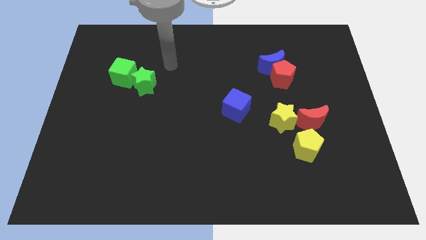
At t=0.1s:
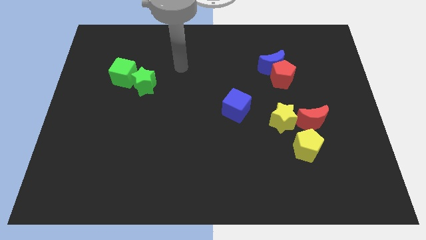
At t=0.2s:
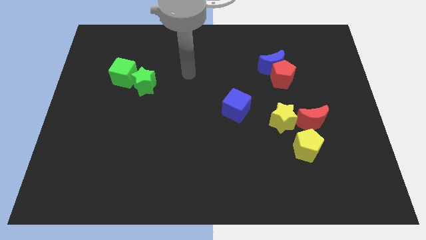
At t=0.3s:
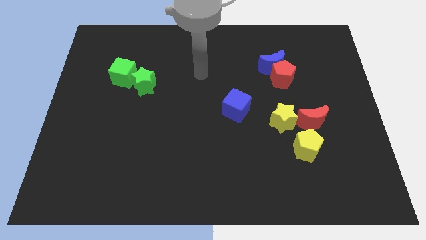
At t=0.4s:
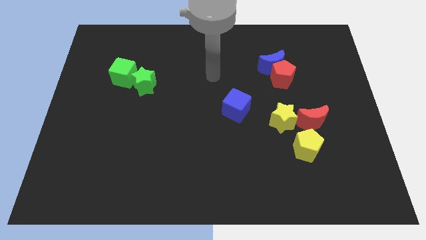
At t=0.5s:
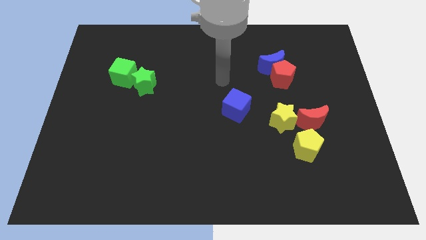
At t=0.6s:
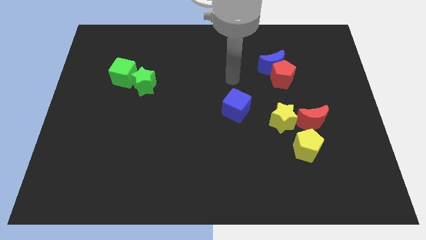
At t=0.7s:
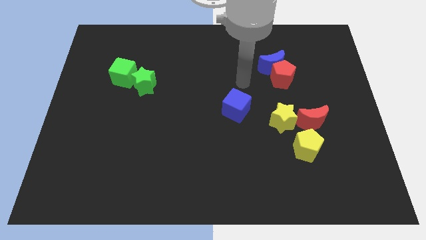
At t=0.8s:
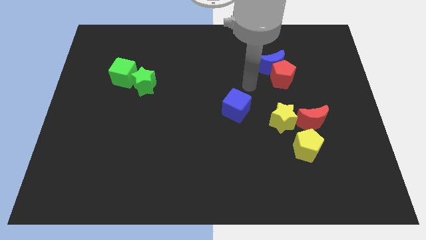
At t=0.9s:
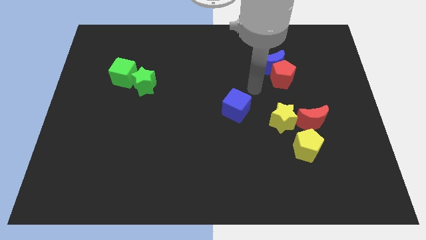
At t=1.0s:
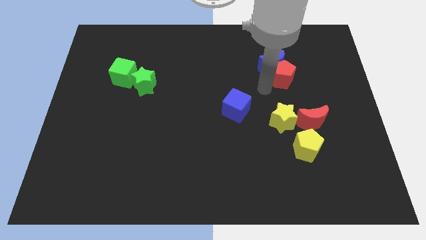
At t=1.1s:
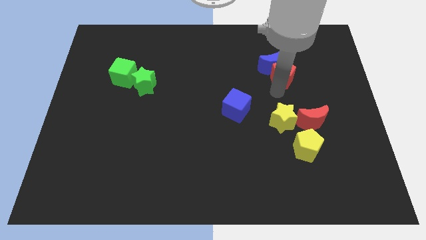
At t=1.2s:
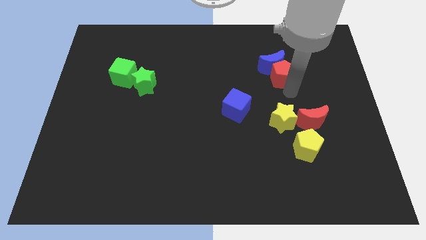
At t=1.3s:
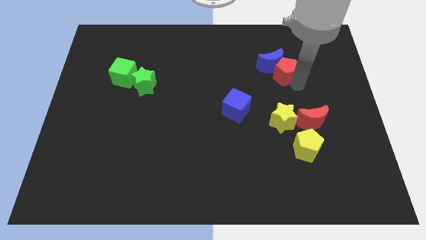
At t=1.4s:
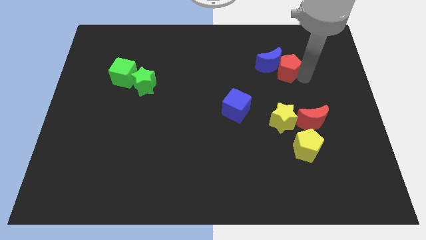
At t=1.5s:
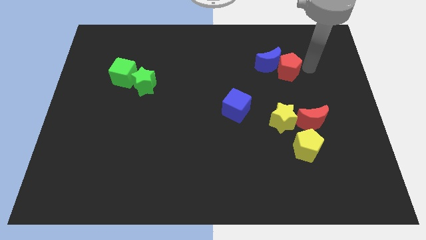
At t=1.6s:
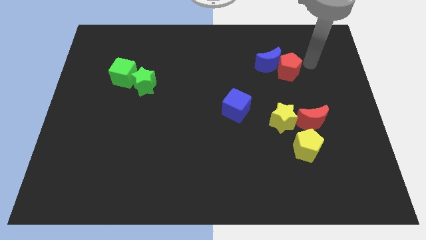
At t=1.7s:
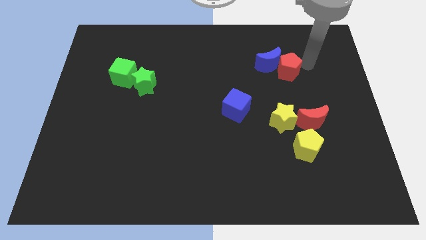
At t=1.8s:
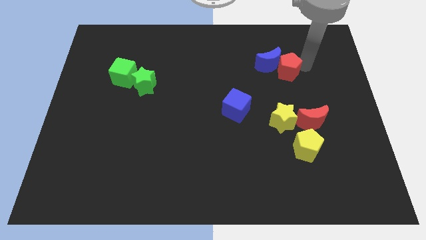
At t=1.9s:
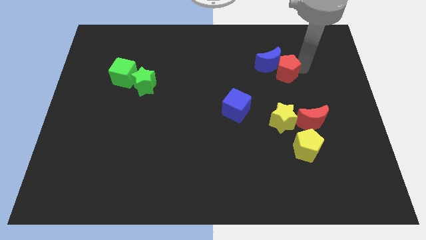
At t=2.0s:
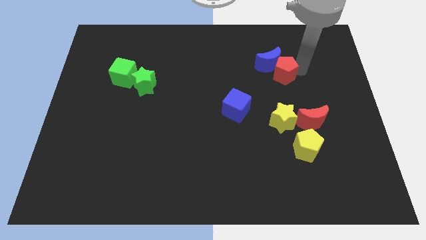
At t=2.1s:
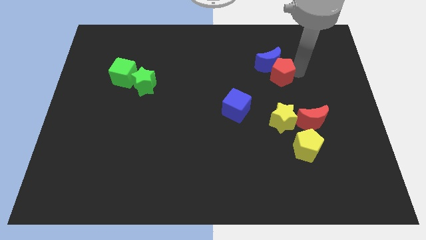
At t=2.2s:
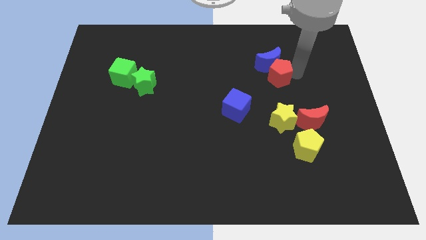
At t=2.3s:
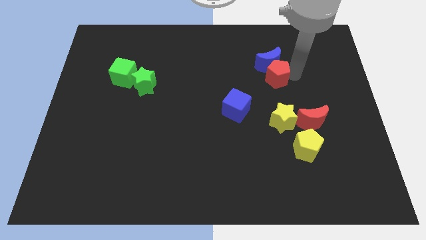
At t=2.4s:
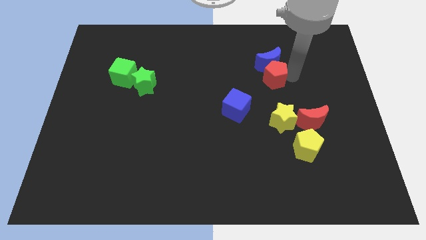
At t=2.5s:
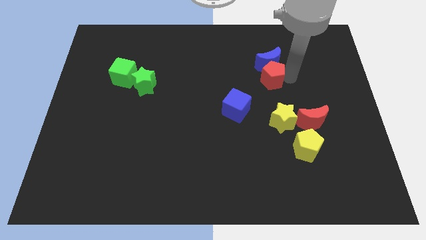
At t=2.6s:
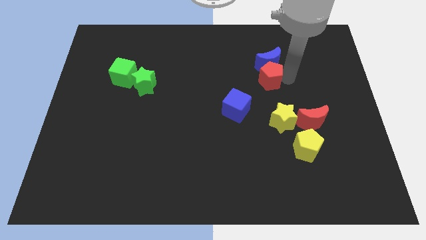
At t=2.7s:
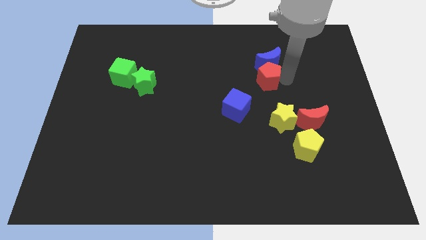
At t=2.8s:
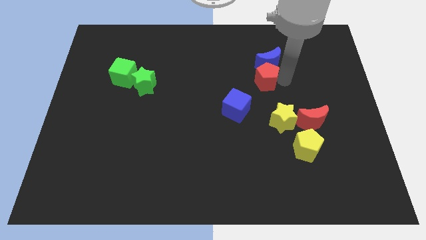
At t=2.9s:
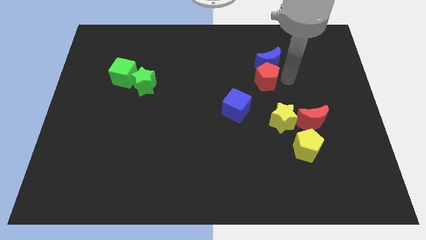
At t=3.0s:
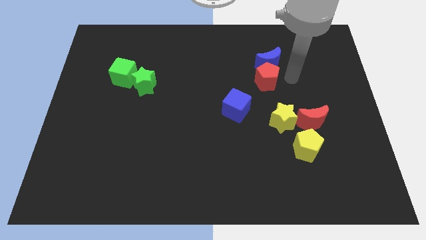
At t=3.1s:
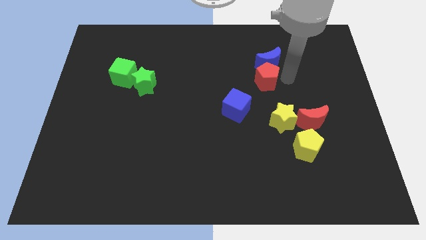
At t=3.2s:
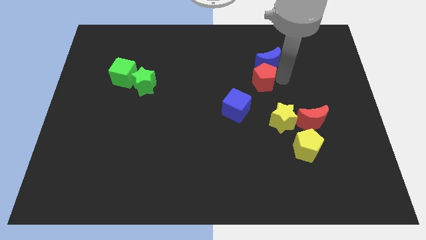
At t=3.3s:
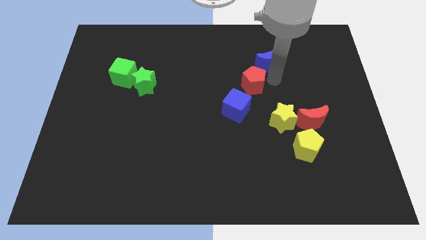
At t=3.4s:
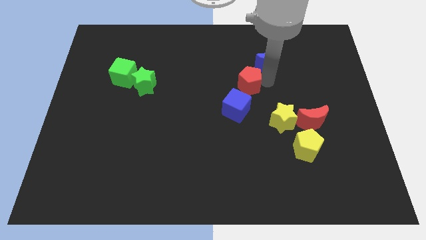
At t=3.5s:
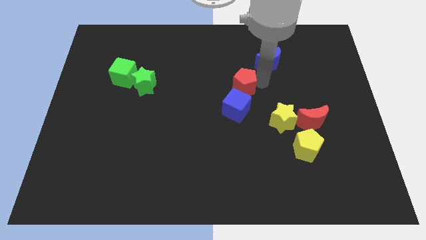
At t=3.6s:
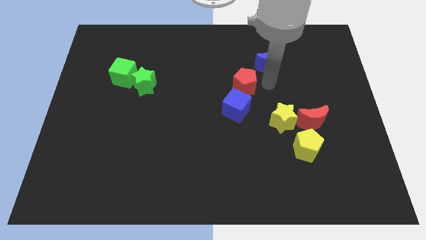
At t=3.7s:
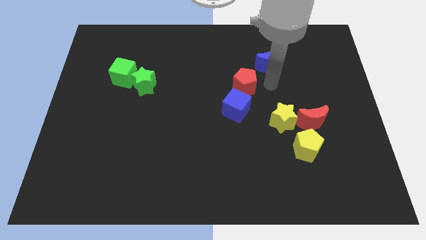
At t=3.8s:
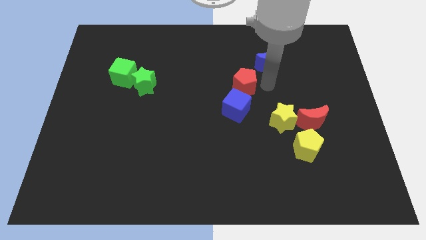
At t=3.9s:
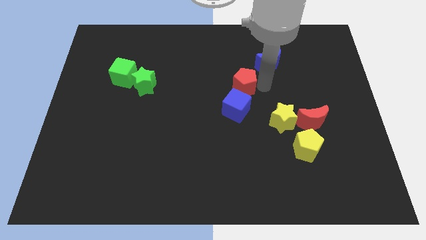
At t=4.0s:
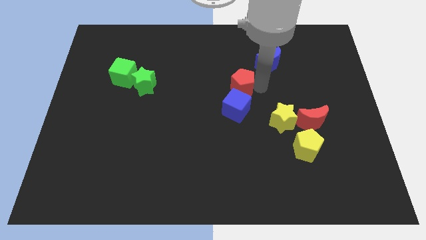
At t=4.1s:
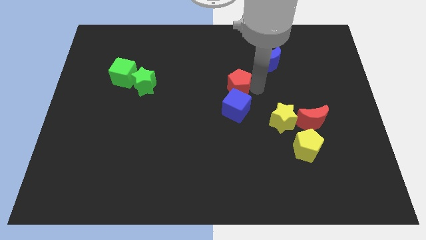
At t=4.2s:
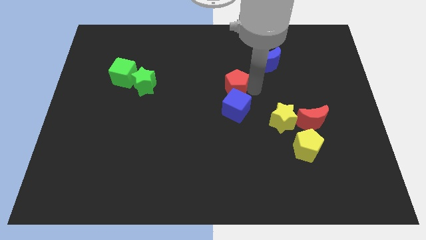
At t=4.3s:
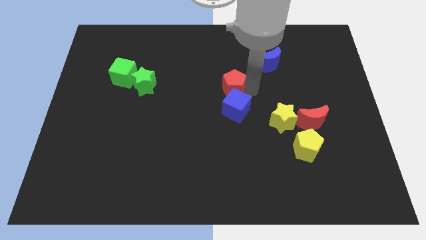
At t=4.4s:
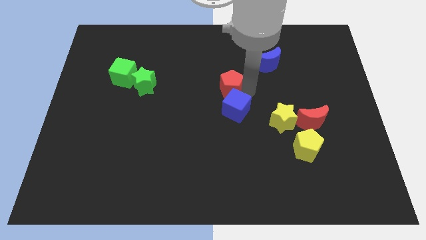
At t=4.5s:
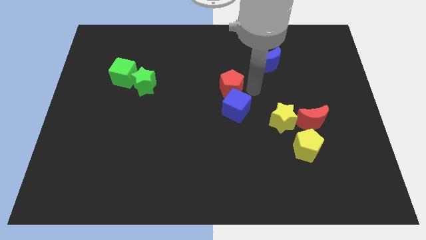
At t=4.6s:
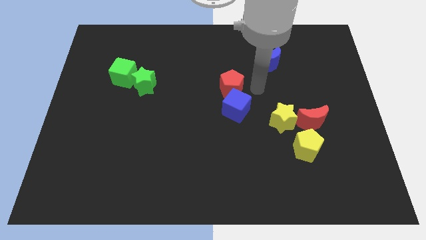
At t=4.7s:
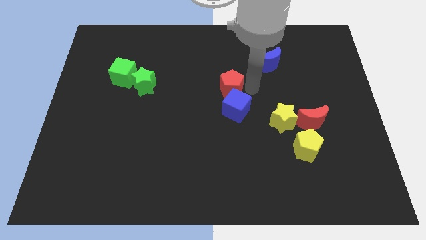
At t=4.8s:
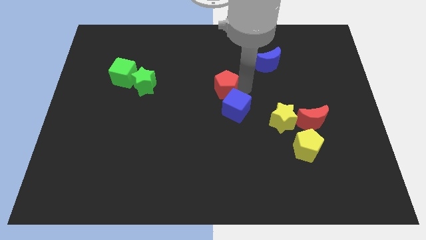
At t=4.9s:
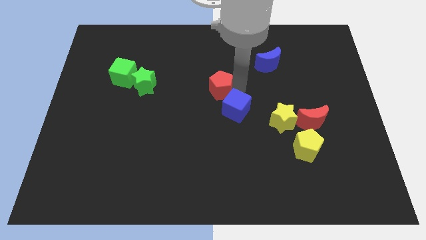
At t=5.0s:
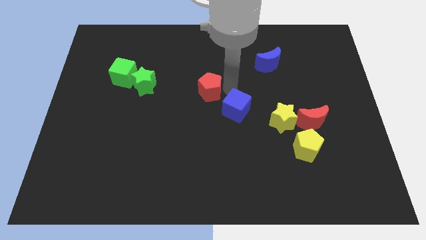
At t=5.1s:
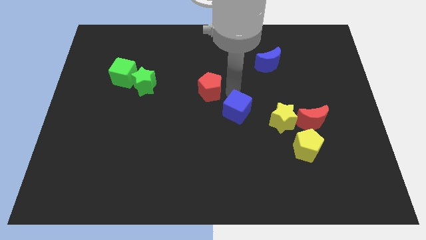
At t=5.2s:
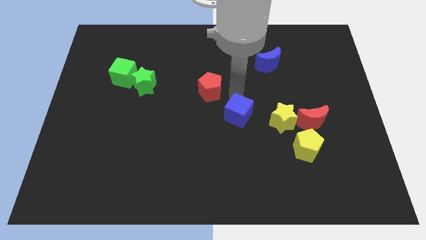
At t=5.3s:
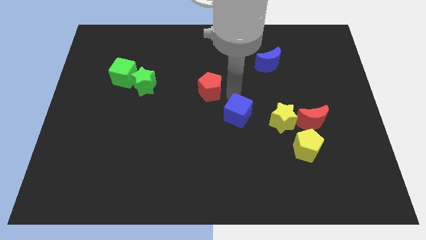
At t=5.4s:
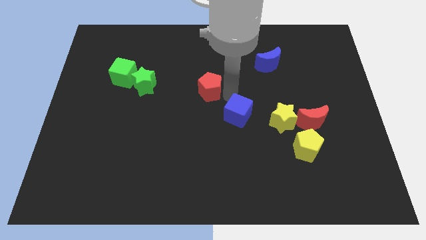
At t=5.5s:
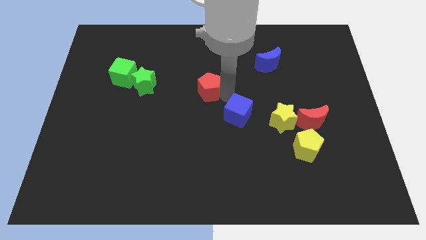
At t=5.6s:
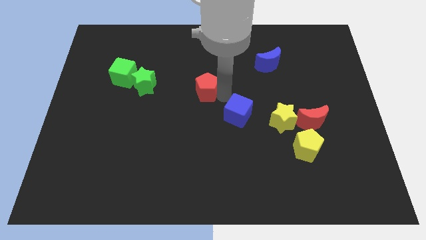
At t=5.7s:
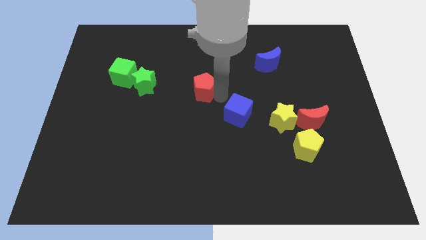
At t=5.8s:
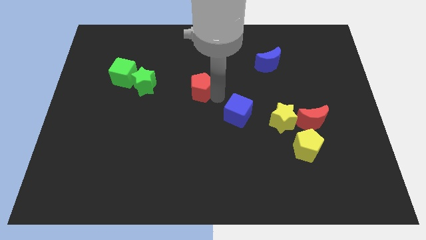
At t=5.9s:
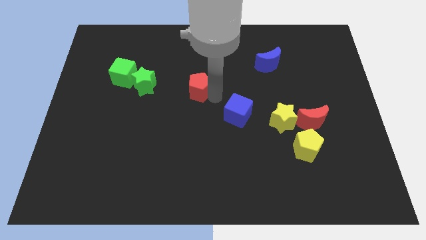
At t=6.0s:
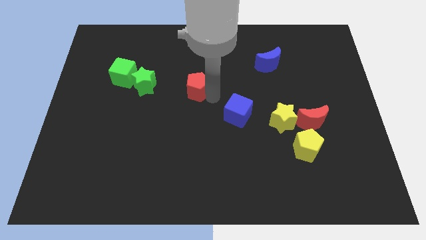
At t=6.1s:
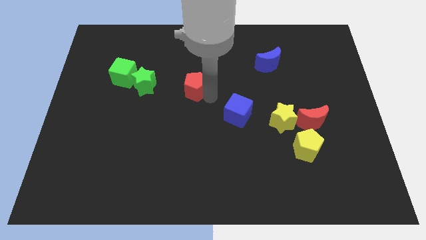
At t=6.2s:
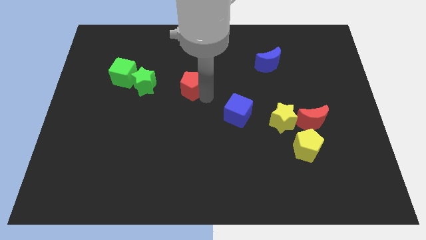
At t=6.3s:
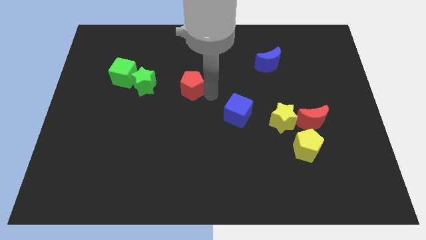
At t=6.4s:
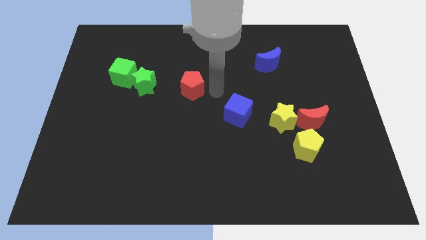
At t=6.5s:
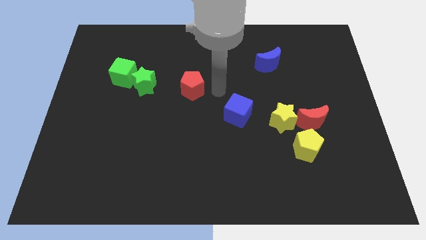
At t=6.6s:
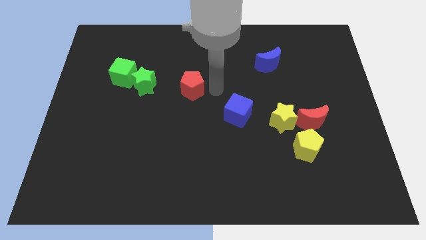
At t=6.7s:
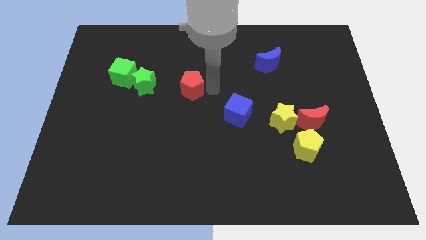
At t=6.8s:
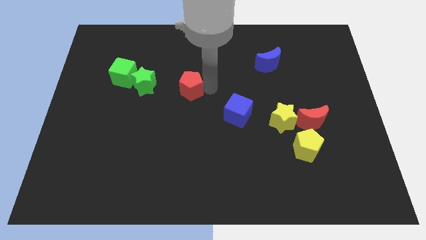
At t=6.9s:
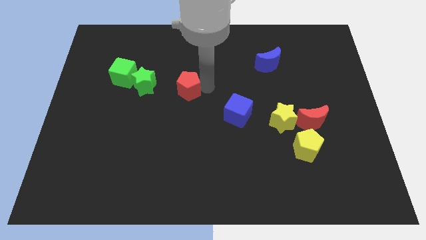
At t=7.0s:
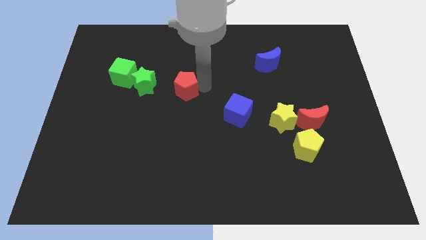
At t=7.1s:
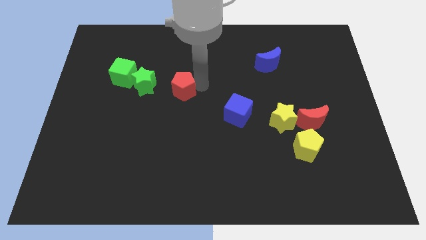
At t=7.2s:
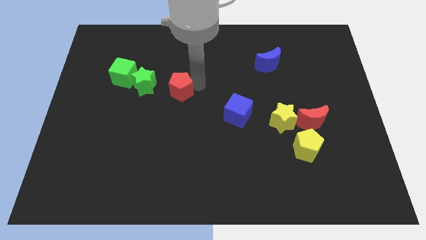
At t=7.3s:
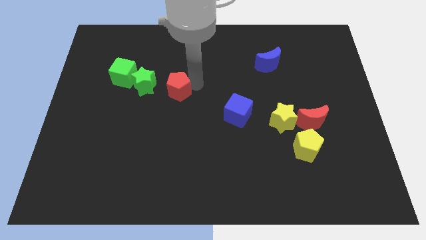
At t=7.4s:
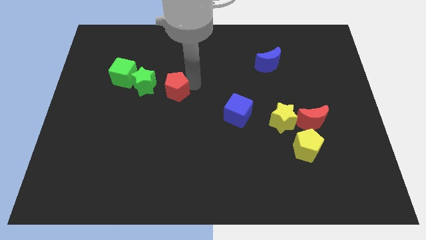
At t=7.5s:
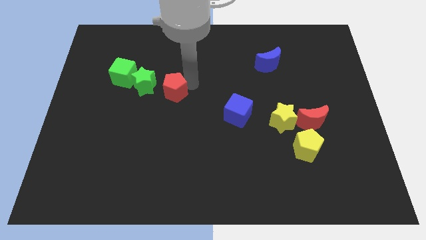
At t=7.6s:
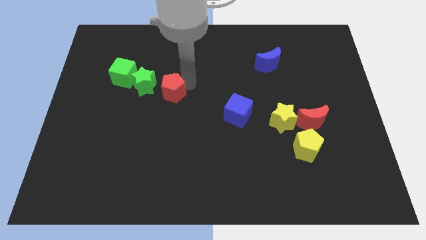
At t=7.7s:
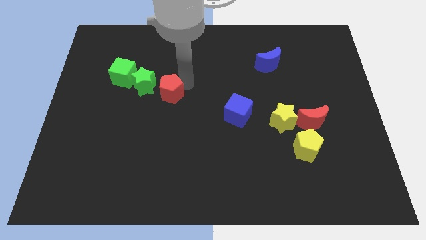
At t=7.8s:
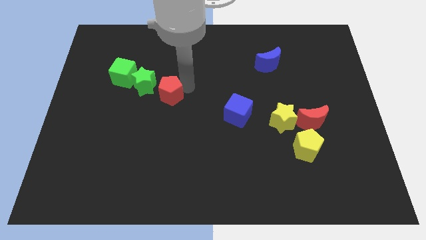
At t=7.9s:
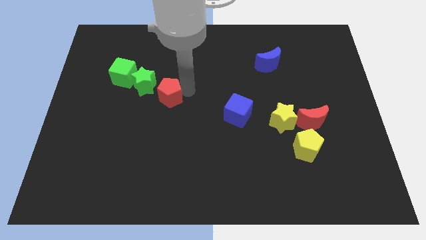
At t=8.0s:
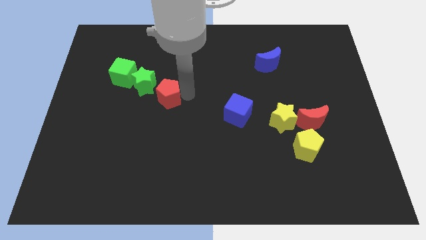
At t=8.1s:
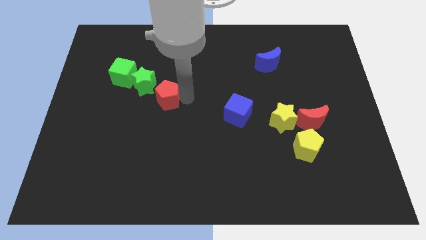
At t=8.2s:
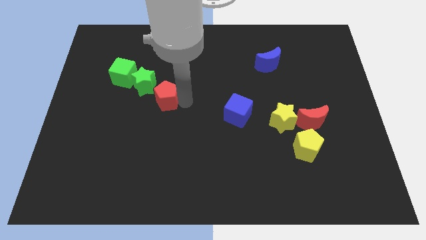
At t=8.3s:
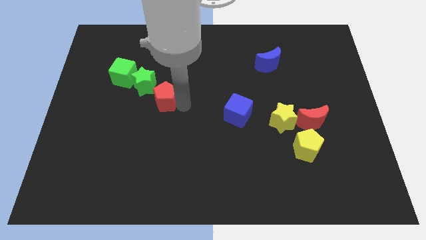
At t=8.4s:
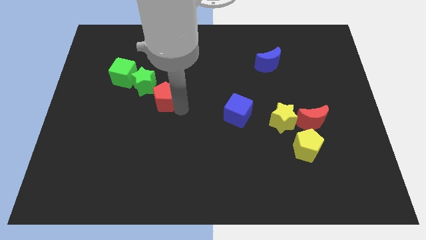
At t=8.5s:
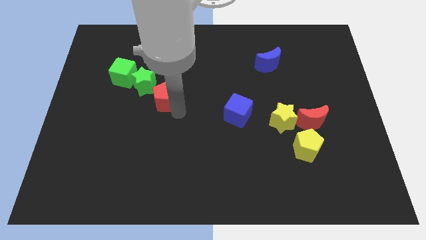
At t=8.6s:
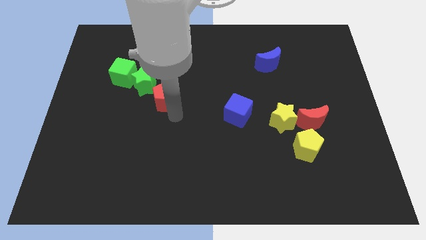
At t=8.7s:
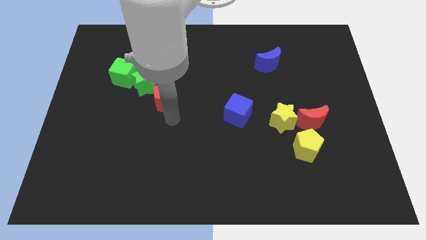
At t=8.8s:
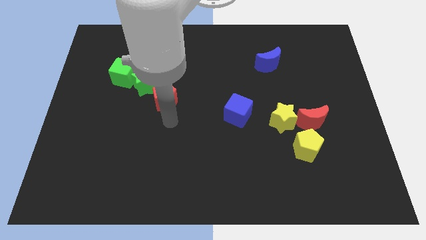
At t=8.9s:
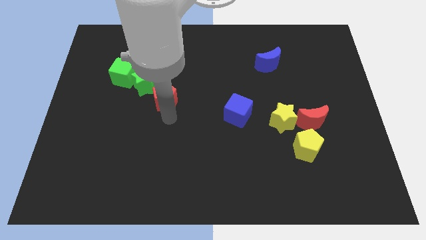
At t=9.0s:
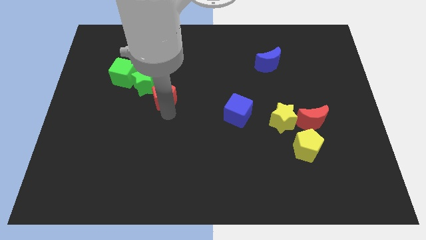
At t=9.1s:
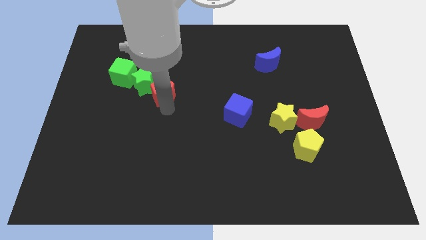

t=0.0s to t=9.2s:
put the red pentagon close to the green star
